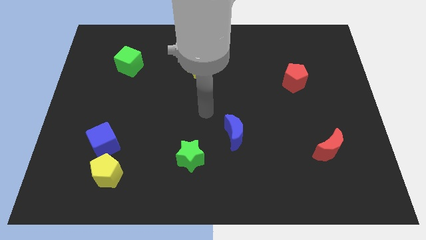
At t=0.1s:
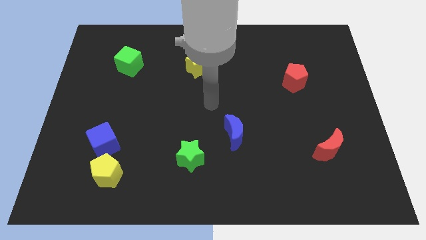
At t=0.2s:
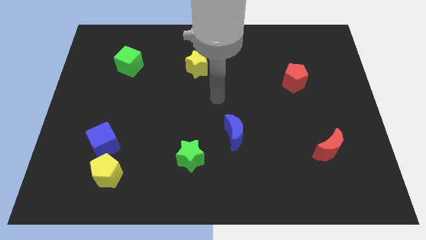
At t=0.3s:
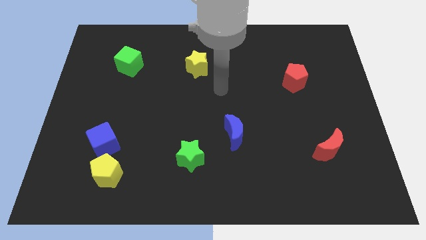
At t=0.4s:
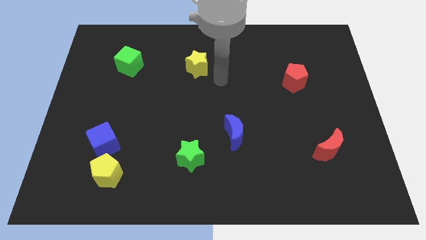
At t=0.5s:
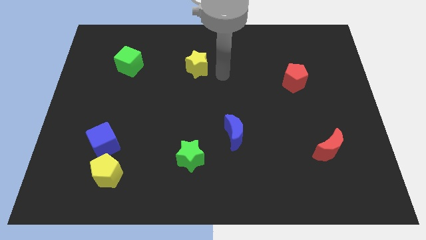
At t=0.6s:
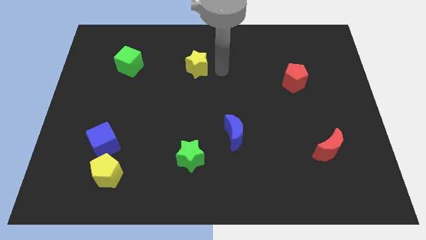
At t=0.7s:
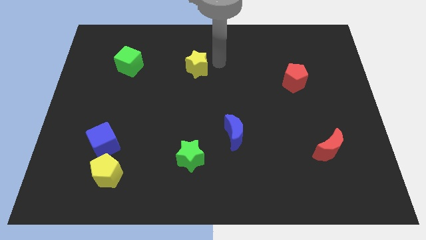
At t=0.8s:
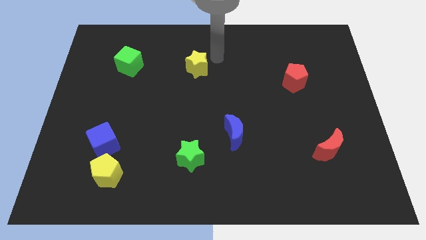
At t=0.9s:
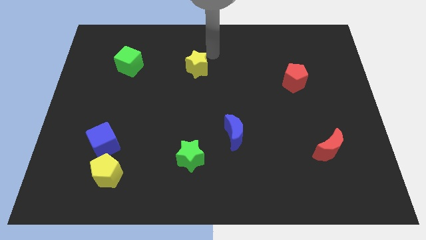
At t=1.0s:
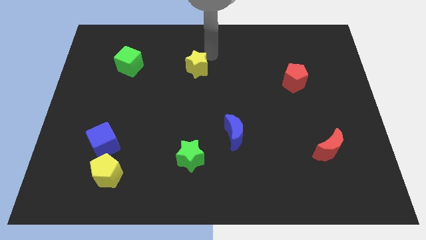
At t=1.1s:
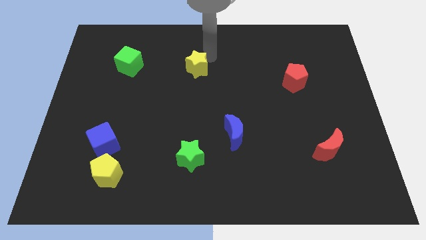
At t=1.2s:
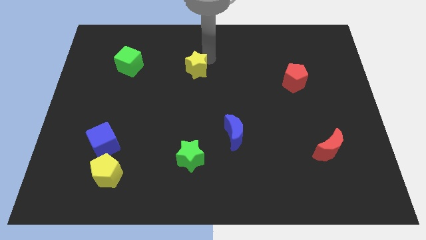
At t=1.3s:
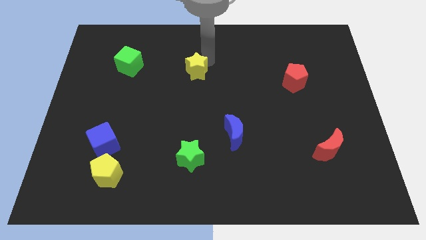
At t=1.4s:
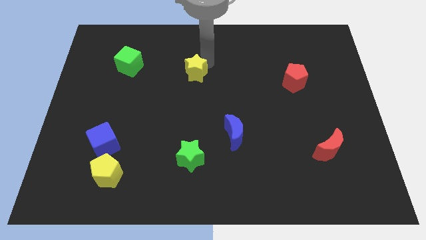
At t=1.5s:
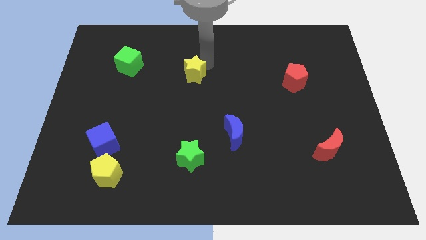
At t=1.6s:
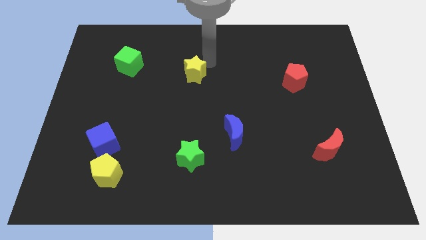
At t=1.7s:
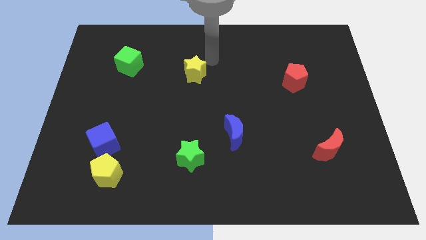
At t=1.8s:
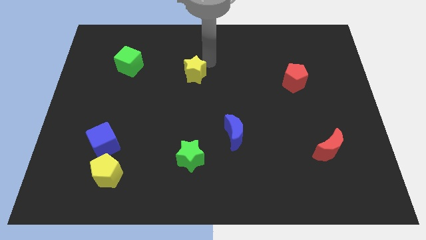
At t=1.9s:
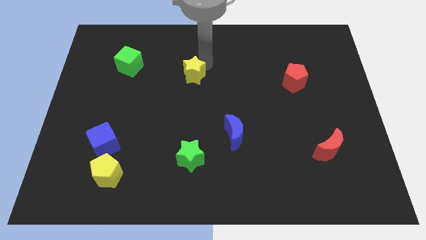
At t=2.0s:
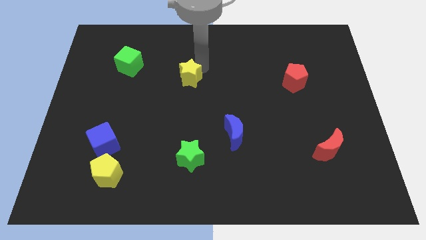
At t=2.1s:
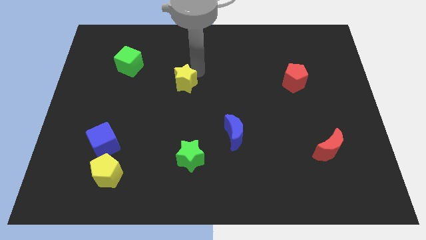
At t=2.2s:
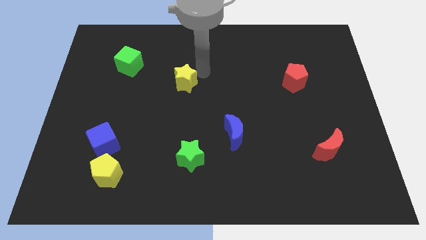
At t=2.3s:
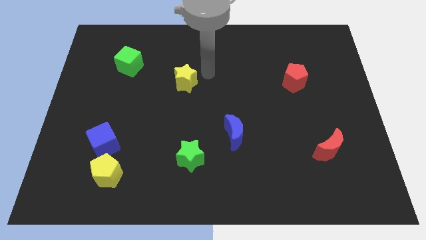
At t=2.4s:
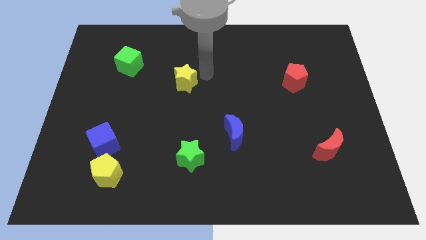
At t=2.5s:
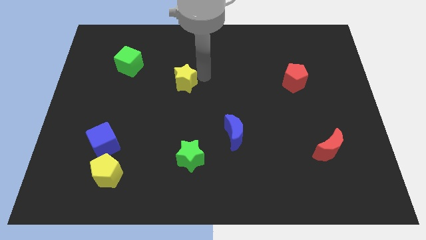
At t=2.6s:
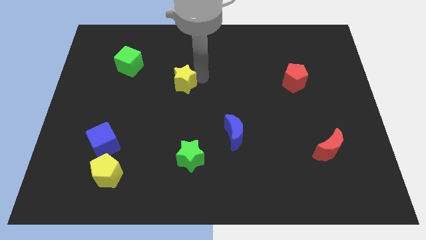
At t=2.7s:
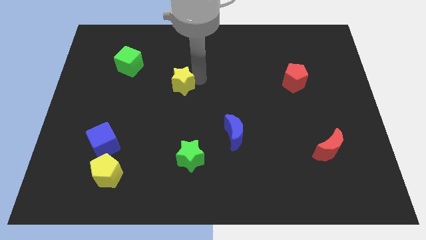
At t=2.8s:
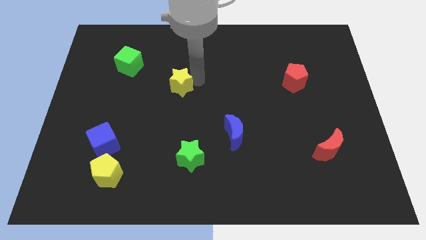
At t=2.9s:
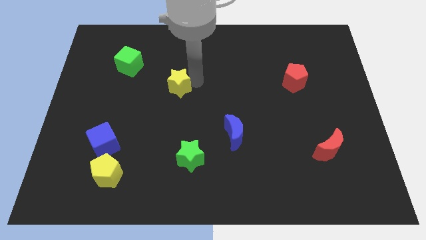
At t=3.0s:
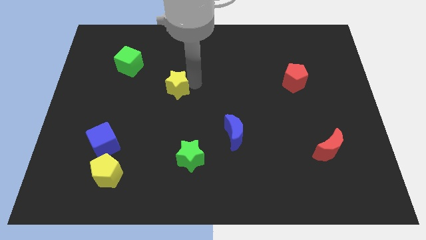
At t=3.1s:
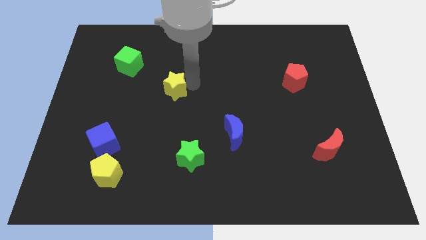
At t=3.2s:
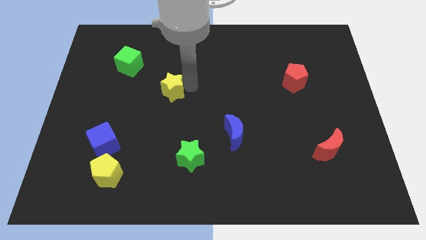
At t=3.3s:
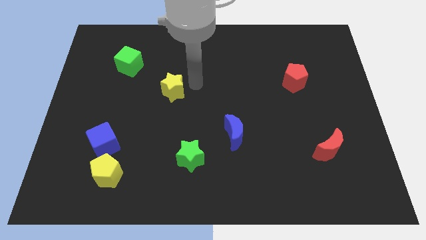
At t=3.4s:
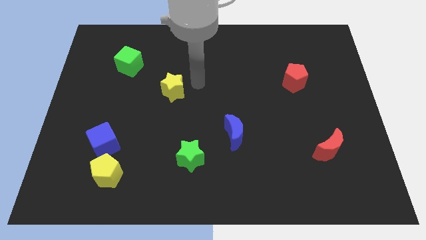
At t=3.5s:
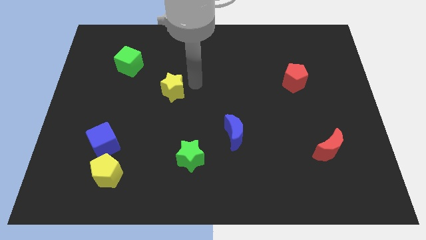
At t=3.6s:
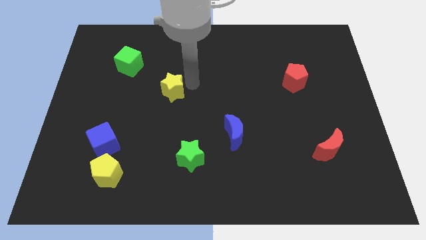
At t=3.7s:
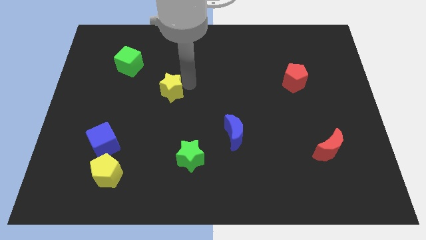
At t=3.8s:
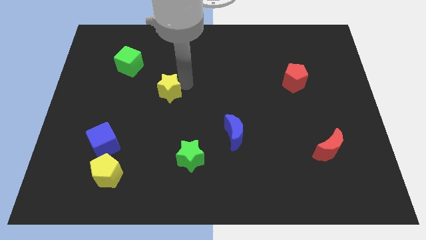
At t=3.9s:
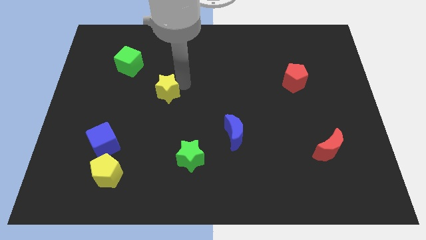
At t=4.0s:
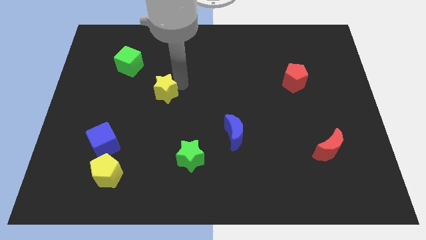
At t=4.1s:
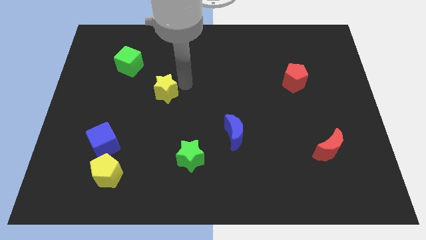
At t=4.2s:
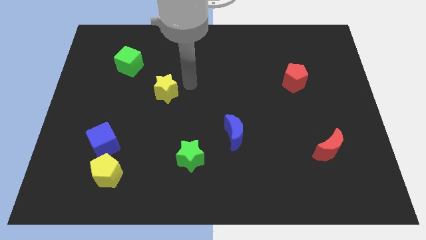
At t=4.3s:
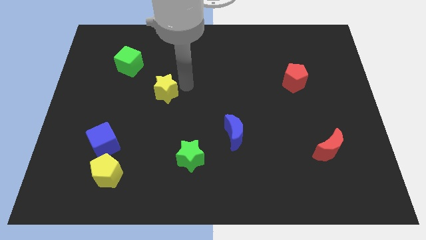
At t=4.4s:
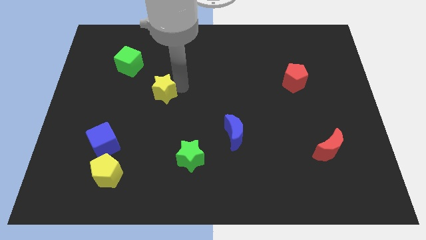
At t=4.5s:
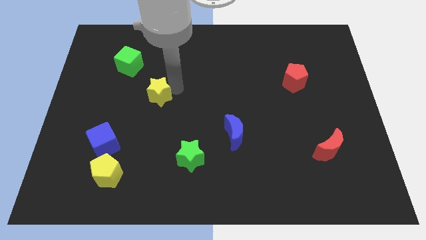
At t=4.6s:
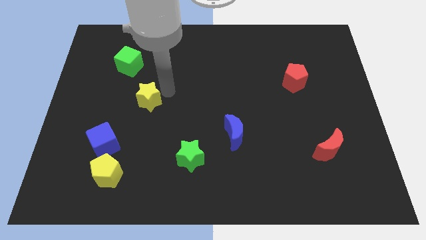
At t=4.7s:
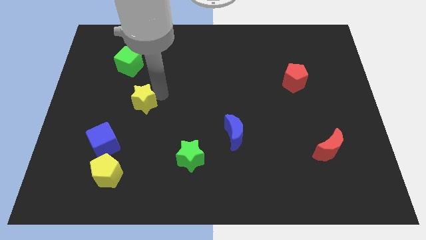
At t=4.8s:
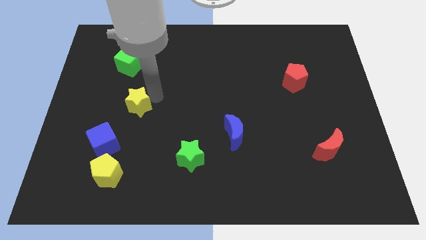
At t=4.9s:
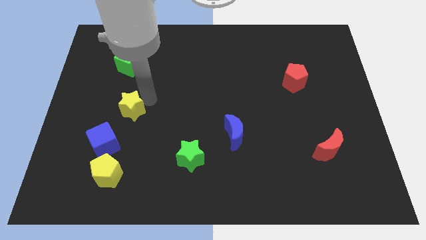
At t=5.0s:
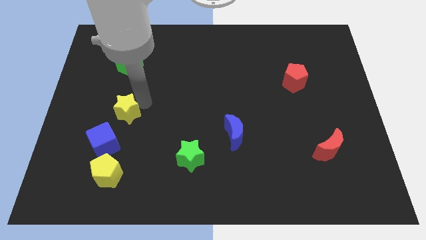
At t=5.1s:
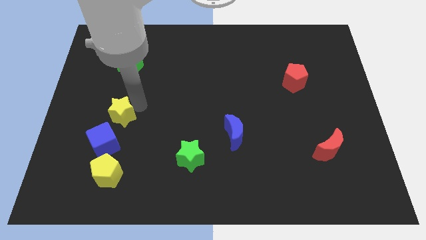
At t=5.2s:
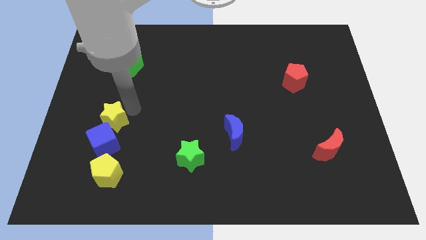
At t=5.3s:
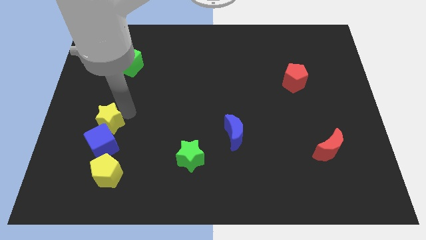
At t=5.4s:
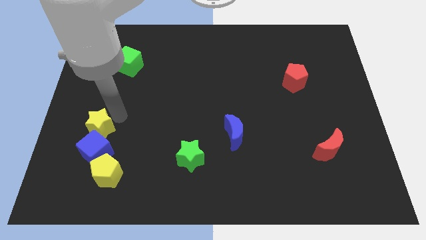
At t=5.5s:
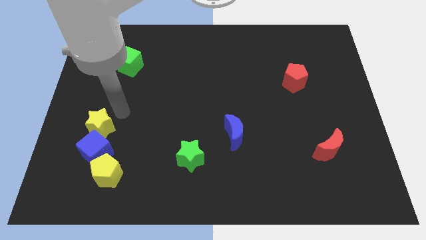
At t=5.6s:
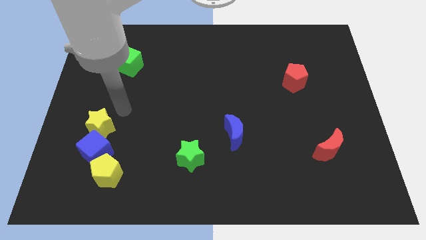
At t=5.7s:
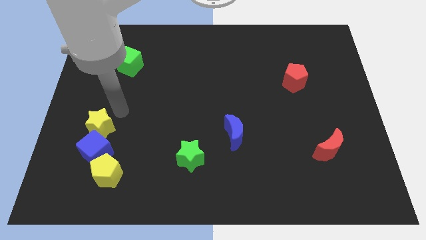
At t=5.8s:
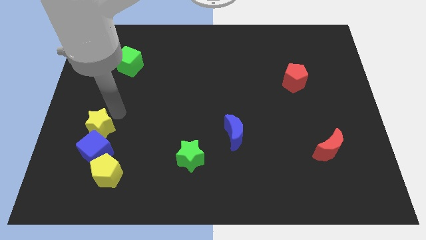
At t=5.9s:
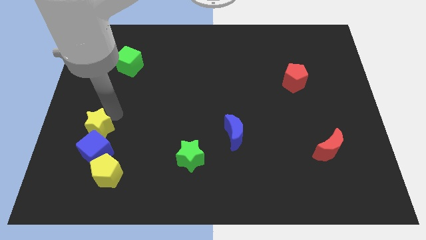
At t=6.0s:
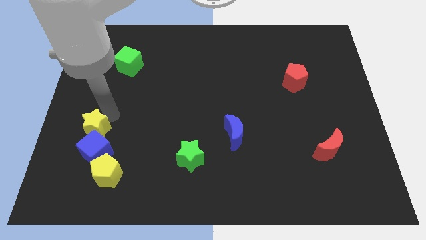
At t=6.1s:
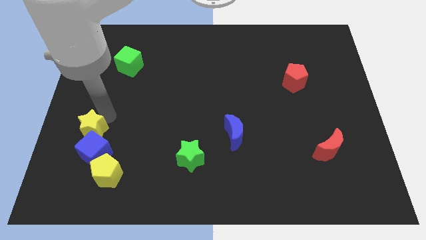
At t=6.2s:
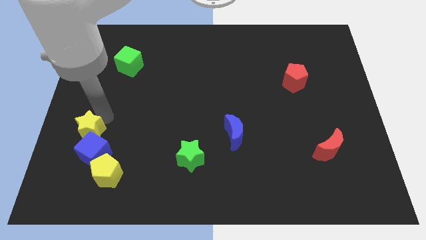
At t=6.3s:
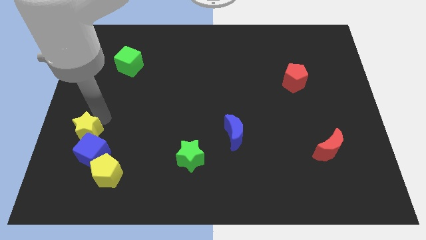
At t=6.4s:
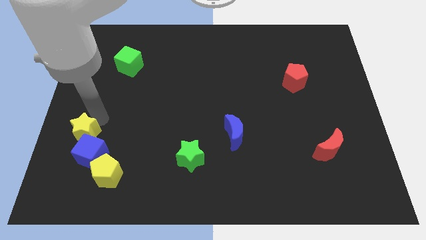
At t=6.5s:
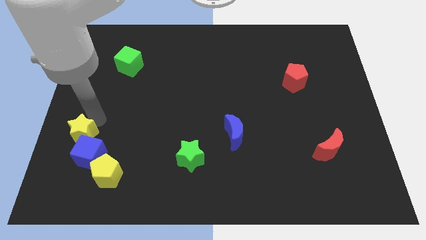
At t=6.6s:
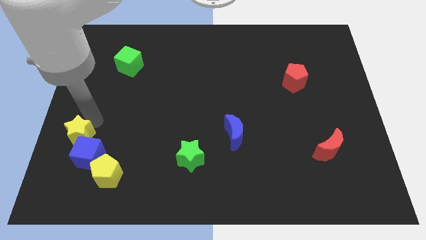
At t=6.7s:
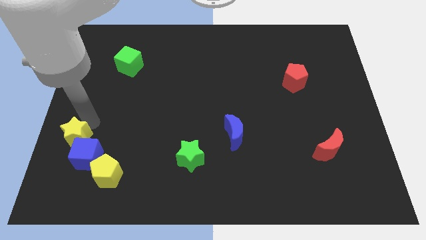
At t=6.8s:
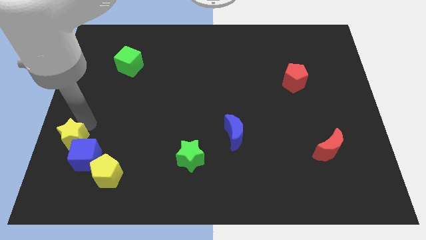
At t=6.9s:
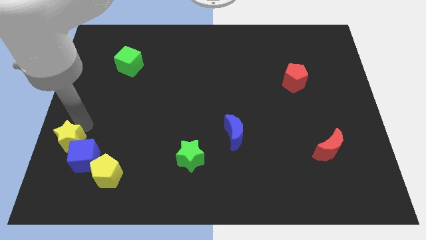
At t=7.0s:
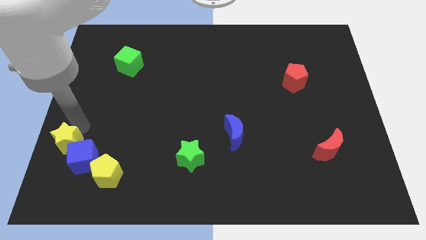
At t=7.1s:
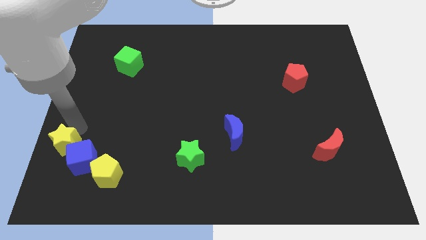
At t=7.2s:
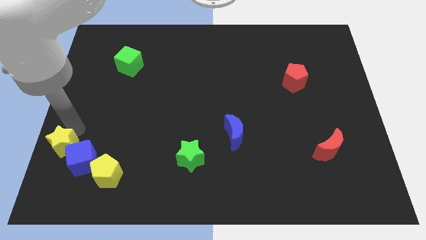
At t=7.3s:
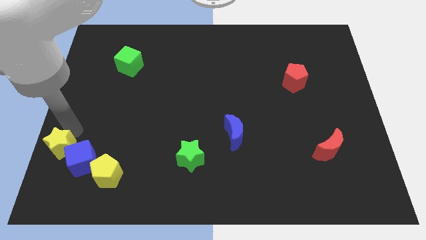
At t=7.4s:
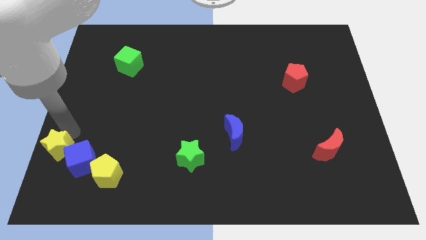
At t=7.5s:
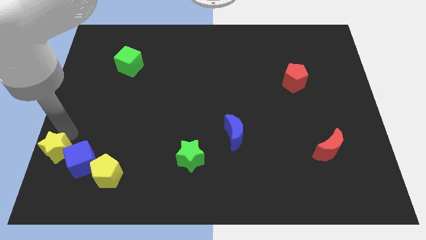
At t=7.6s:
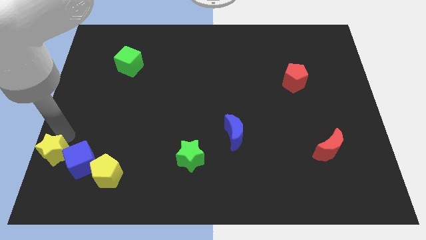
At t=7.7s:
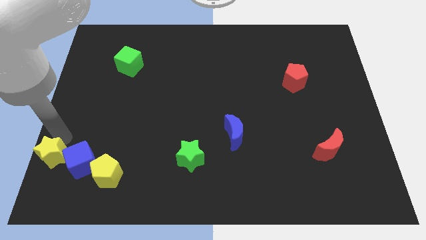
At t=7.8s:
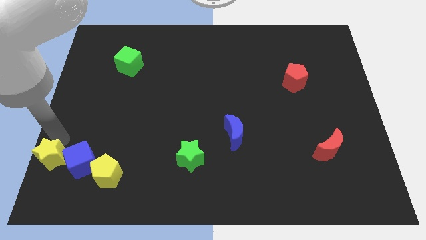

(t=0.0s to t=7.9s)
put the yellow star to the bottom left of the board
